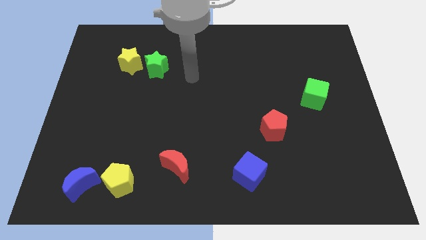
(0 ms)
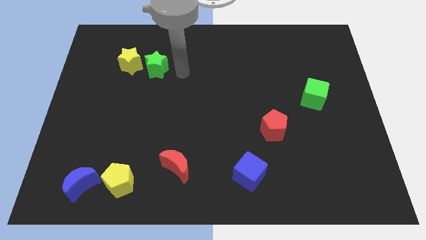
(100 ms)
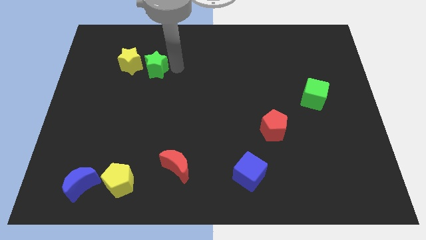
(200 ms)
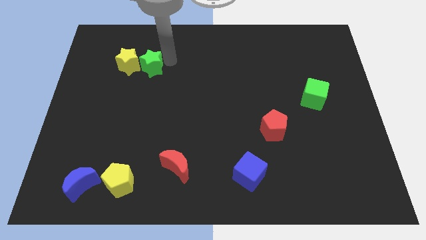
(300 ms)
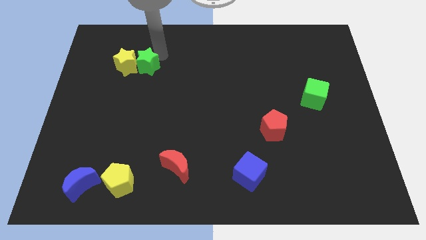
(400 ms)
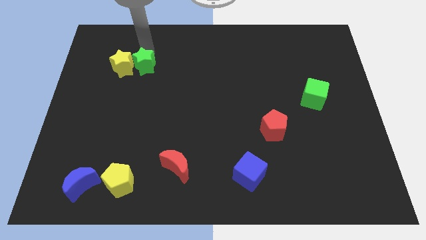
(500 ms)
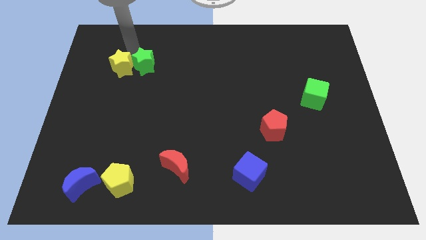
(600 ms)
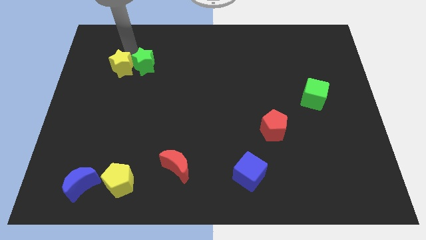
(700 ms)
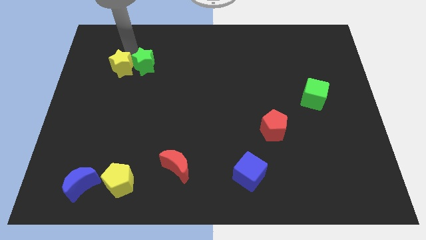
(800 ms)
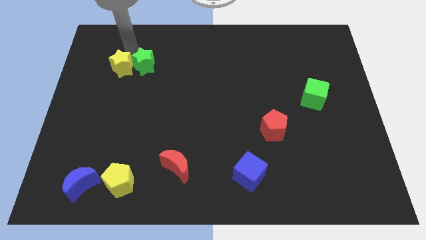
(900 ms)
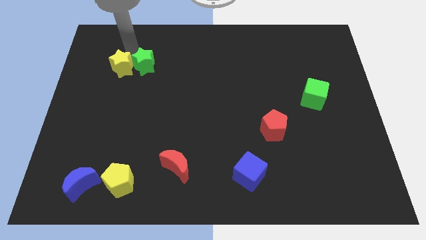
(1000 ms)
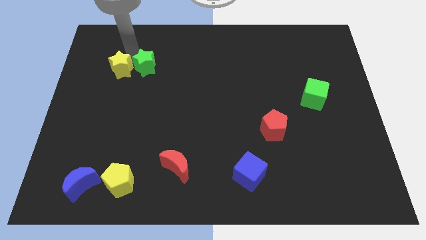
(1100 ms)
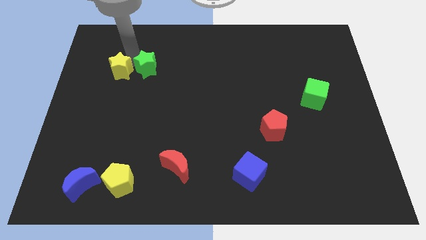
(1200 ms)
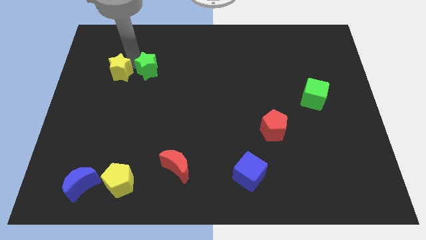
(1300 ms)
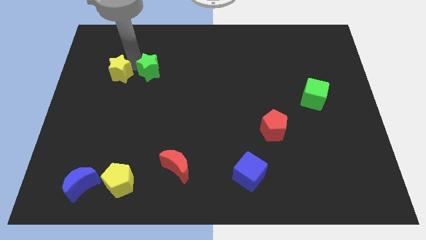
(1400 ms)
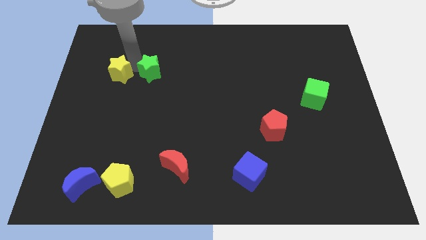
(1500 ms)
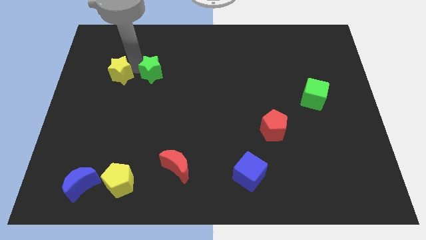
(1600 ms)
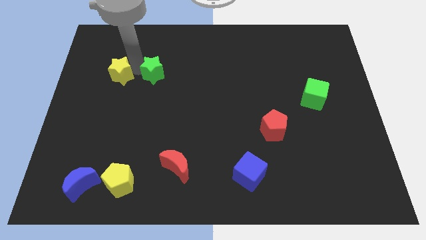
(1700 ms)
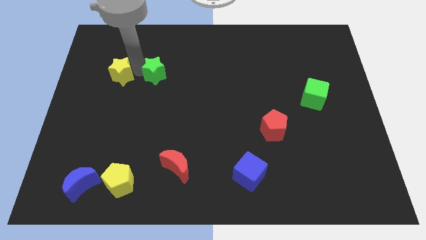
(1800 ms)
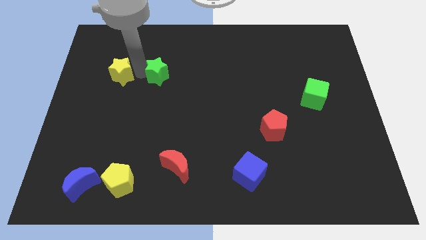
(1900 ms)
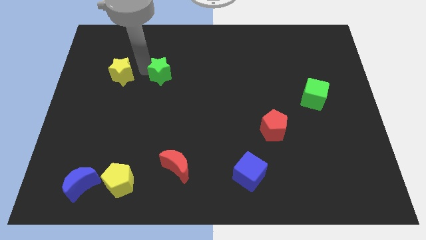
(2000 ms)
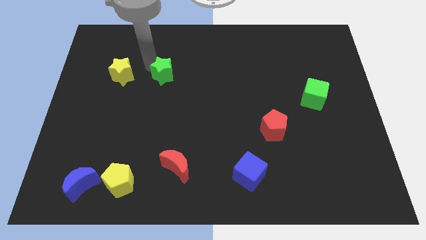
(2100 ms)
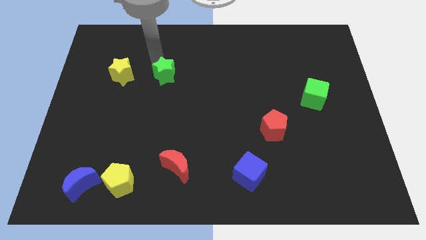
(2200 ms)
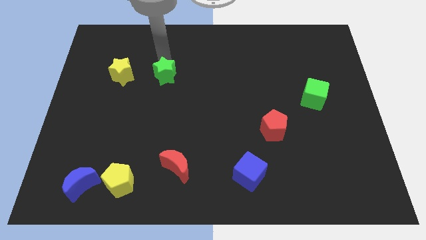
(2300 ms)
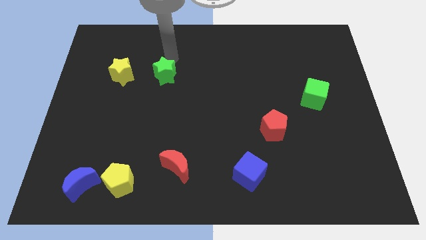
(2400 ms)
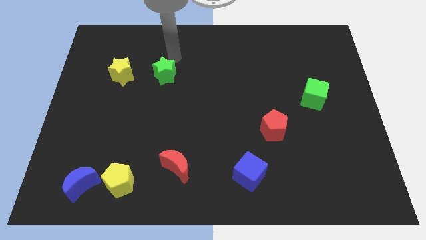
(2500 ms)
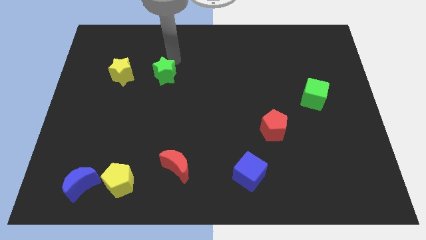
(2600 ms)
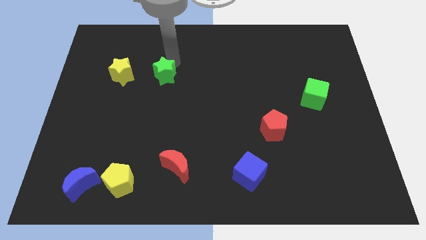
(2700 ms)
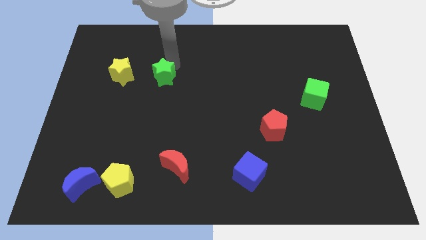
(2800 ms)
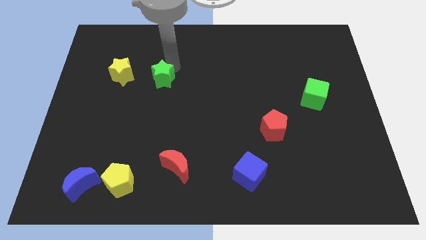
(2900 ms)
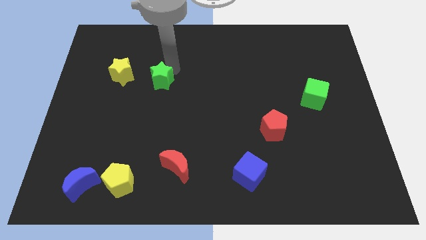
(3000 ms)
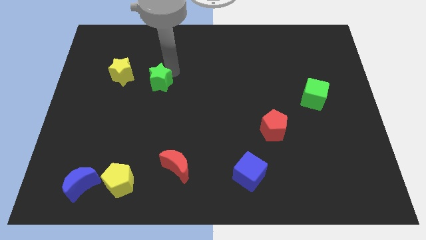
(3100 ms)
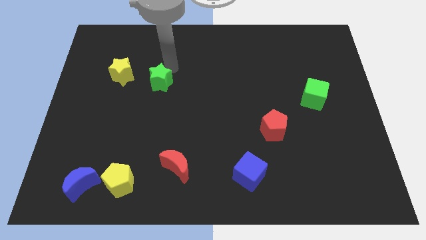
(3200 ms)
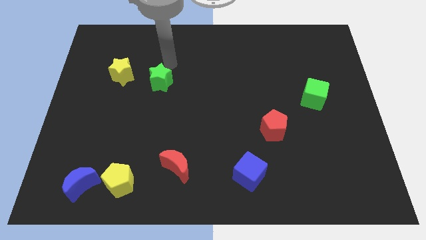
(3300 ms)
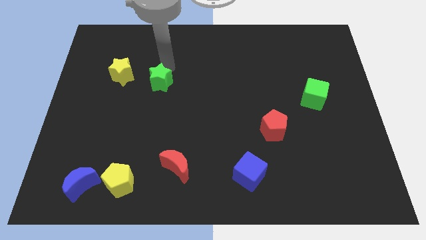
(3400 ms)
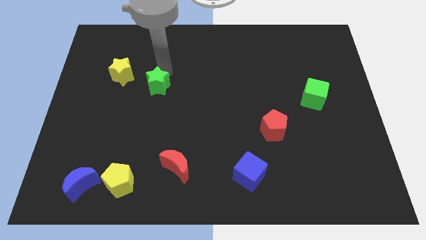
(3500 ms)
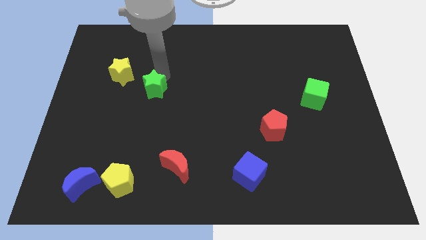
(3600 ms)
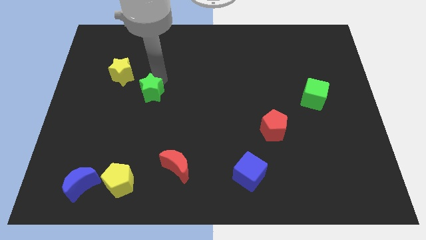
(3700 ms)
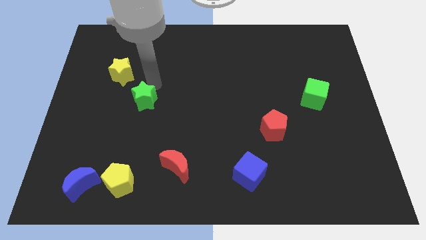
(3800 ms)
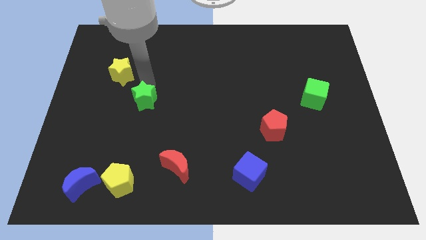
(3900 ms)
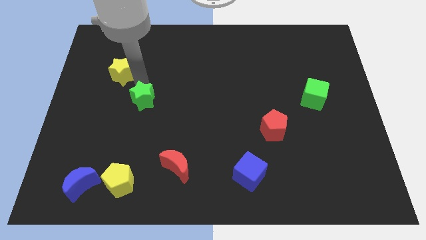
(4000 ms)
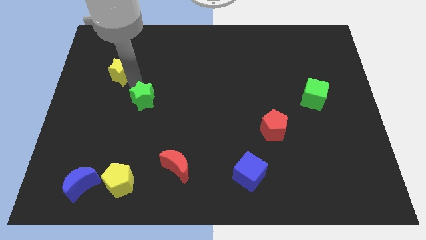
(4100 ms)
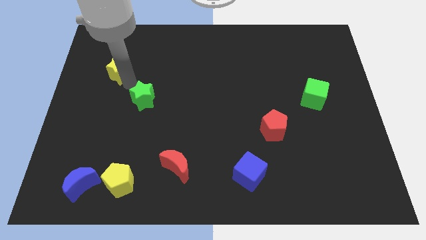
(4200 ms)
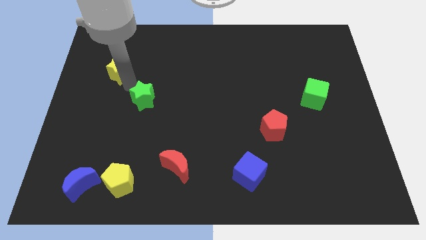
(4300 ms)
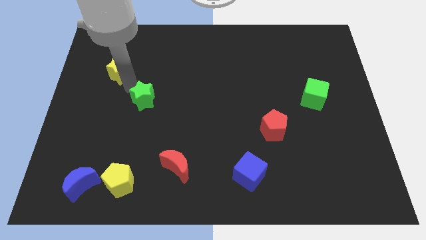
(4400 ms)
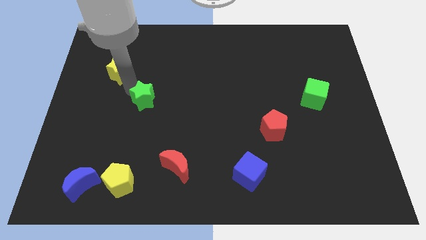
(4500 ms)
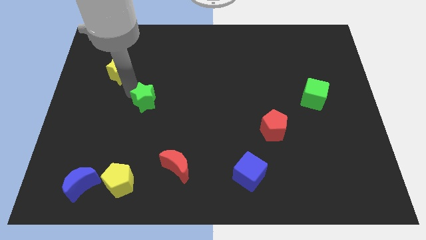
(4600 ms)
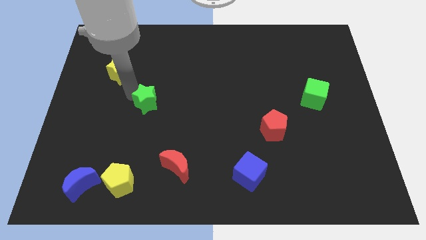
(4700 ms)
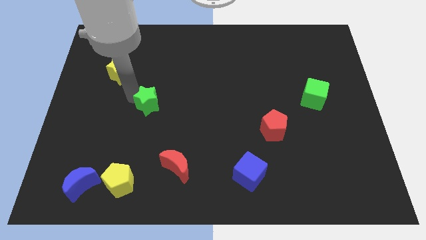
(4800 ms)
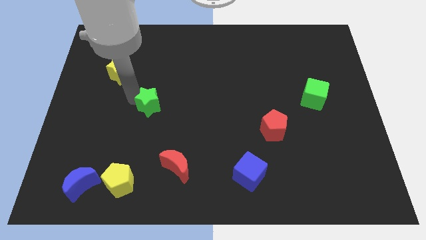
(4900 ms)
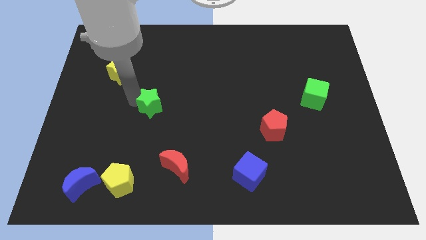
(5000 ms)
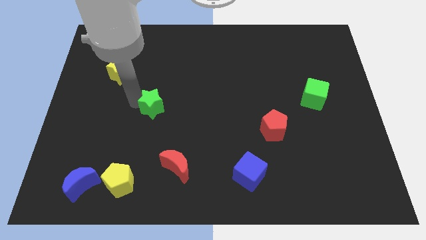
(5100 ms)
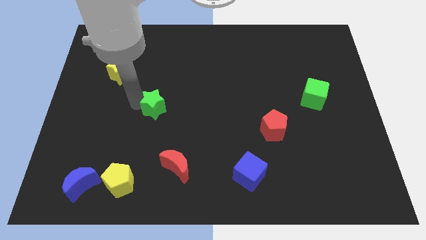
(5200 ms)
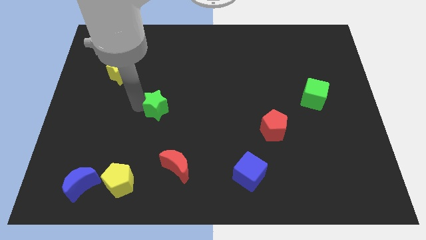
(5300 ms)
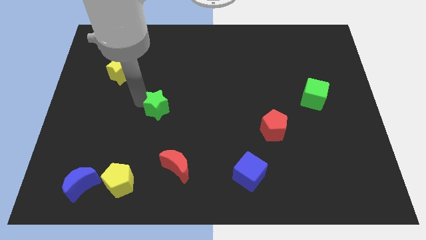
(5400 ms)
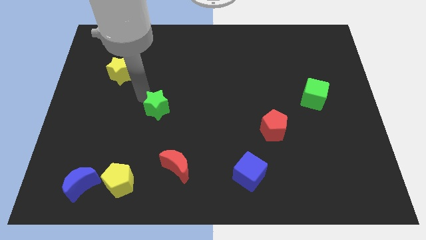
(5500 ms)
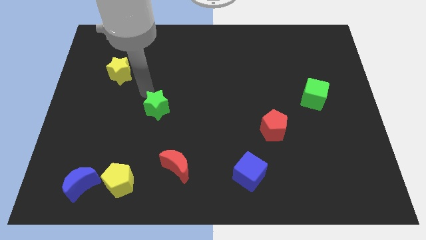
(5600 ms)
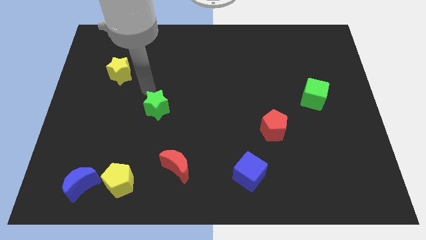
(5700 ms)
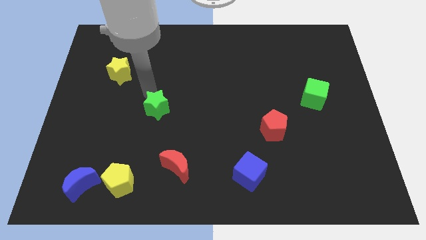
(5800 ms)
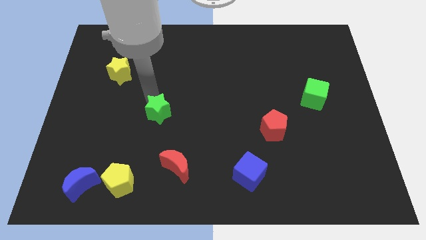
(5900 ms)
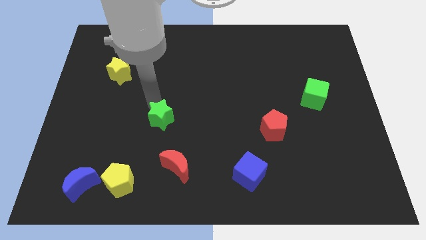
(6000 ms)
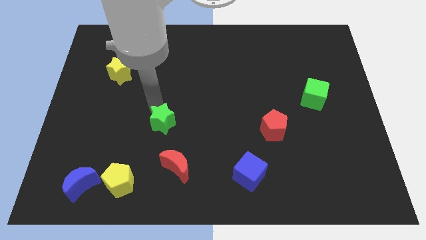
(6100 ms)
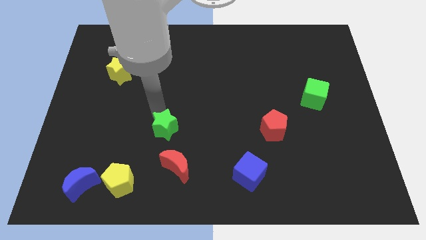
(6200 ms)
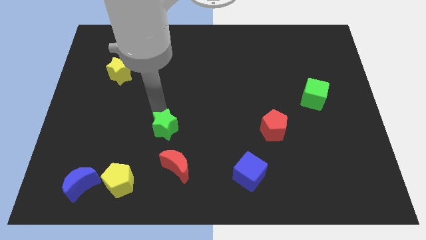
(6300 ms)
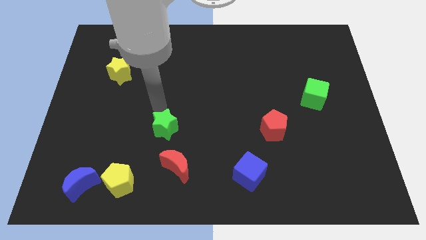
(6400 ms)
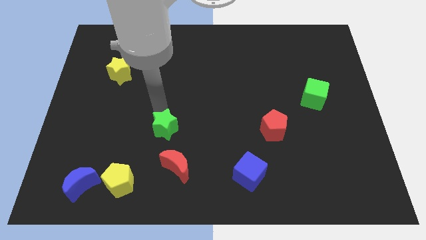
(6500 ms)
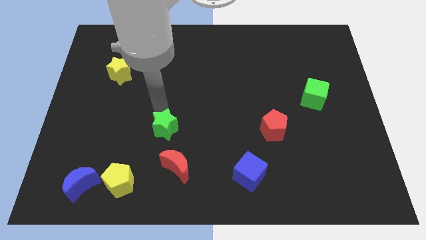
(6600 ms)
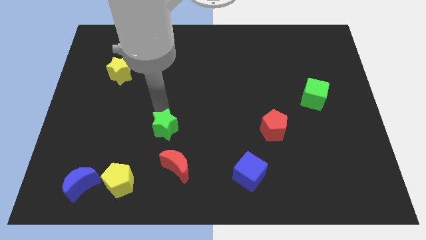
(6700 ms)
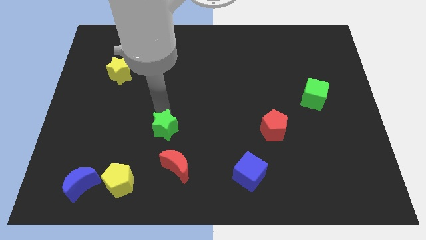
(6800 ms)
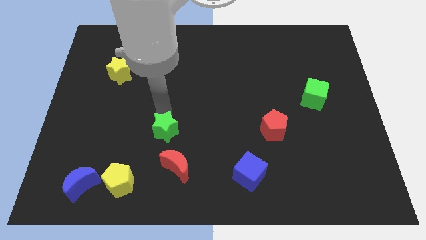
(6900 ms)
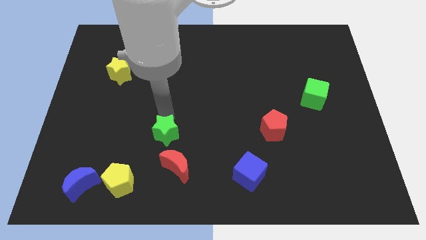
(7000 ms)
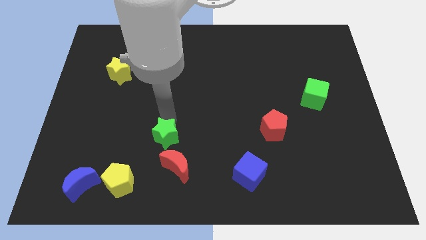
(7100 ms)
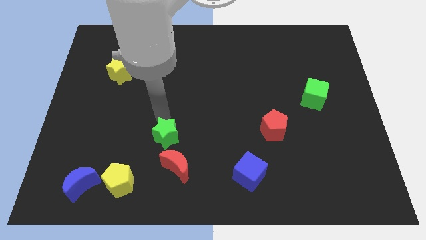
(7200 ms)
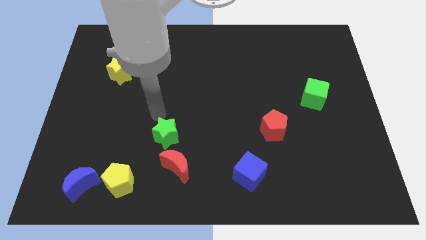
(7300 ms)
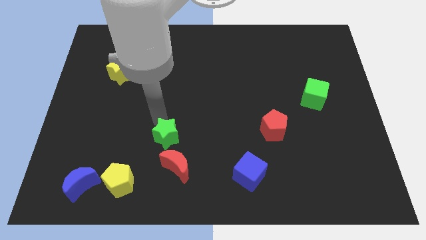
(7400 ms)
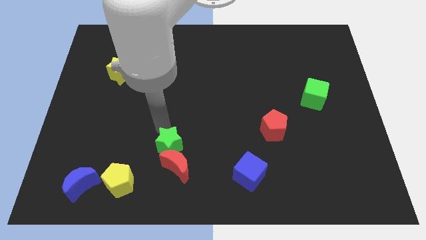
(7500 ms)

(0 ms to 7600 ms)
put the green star close to the red moon
